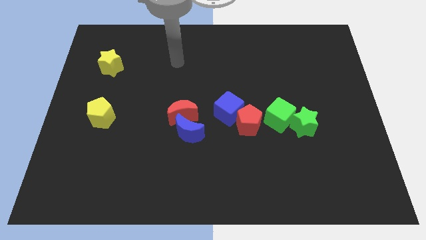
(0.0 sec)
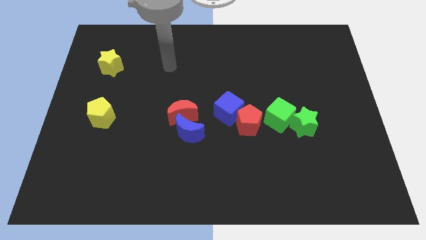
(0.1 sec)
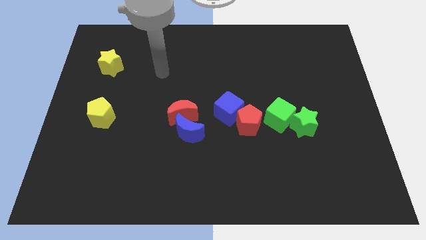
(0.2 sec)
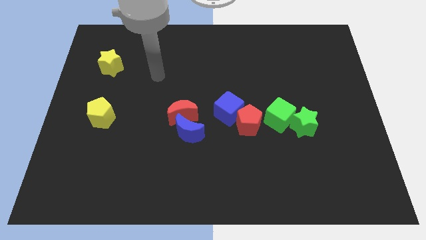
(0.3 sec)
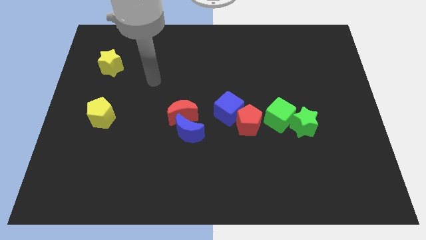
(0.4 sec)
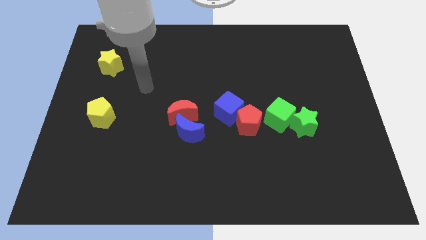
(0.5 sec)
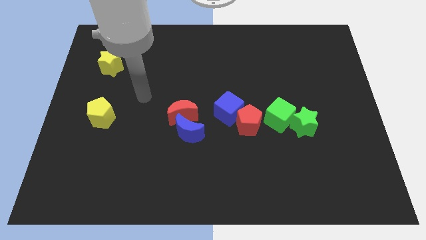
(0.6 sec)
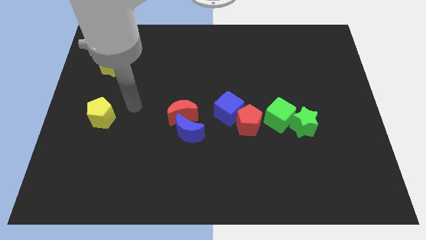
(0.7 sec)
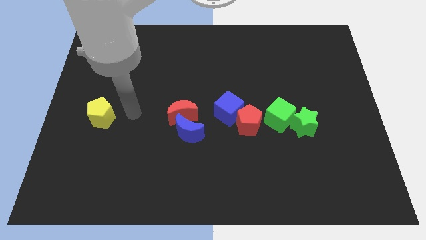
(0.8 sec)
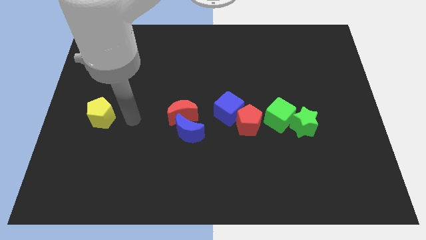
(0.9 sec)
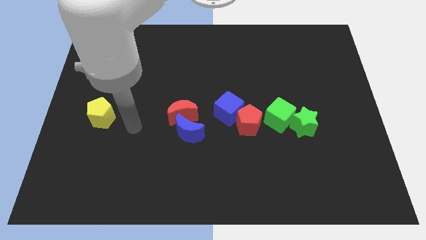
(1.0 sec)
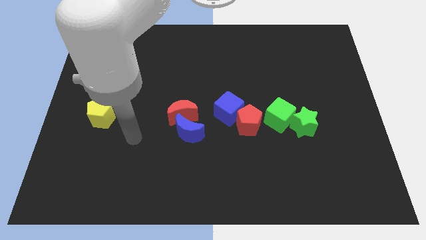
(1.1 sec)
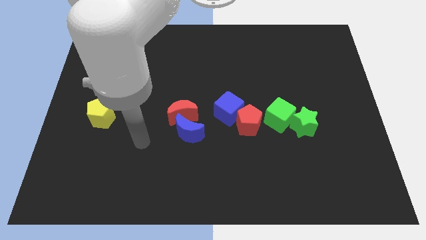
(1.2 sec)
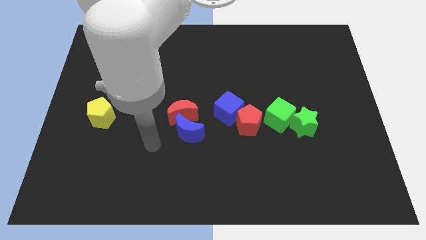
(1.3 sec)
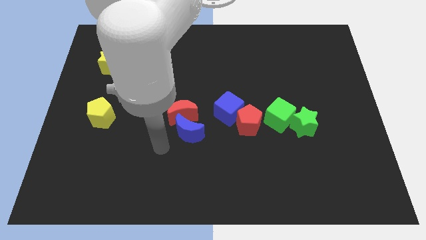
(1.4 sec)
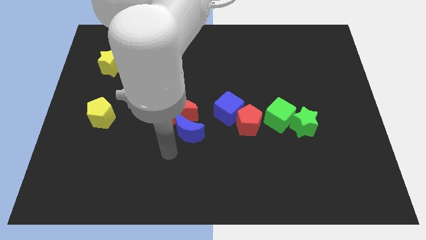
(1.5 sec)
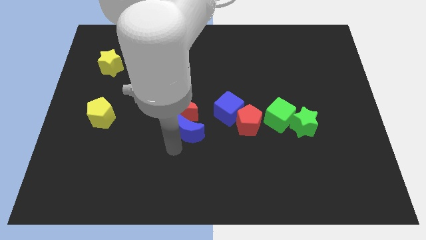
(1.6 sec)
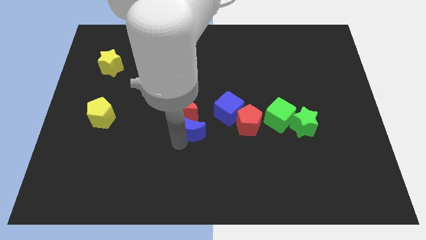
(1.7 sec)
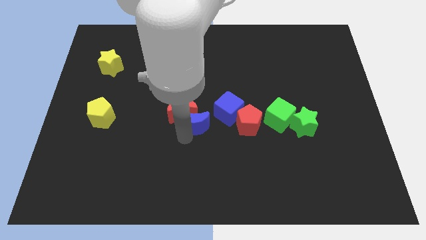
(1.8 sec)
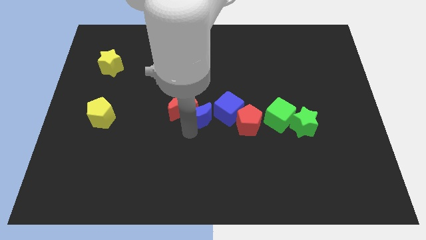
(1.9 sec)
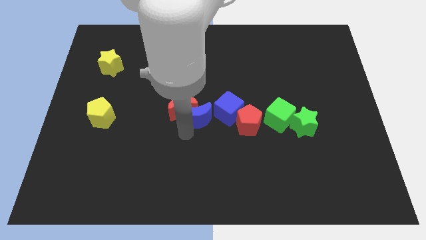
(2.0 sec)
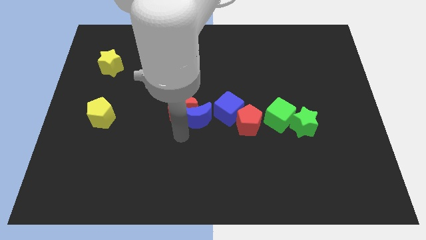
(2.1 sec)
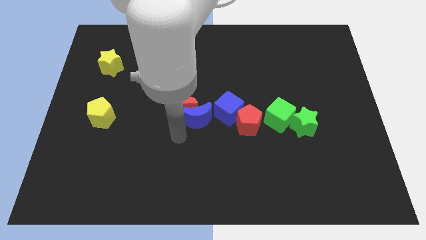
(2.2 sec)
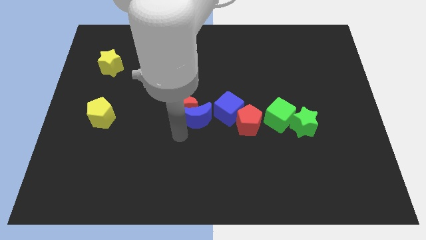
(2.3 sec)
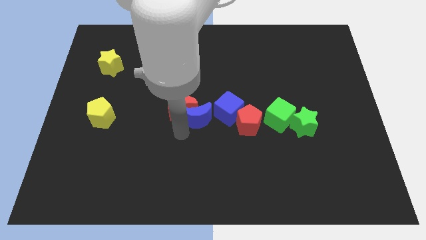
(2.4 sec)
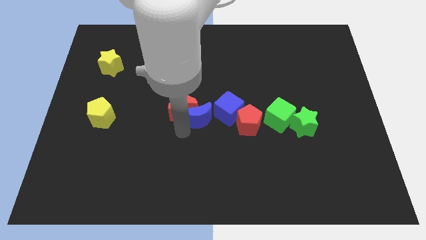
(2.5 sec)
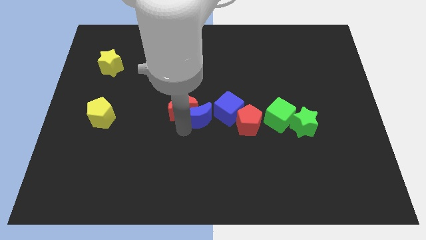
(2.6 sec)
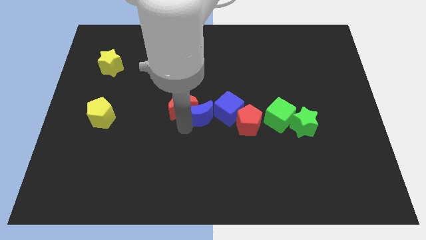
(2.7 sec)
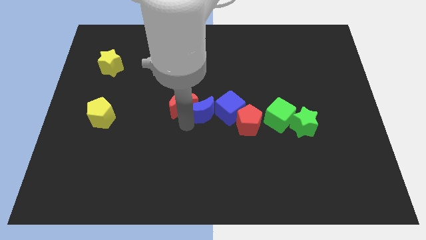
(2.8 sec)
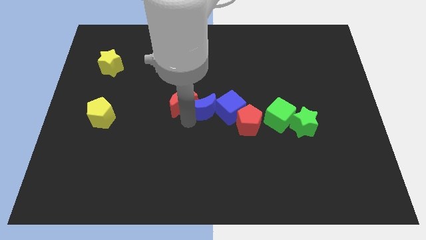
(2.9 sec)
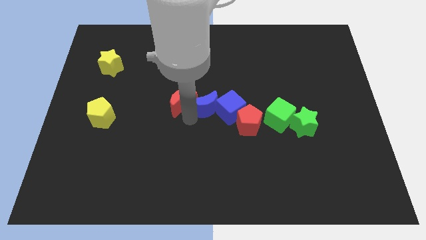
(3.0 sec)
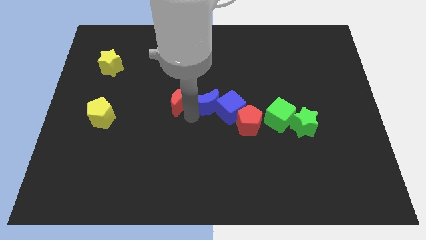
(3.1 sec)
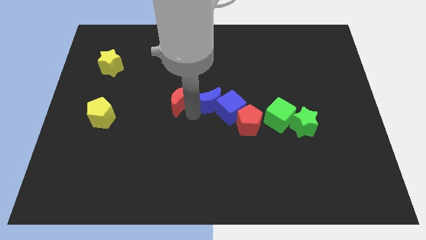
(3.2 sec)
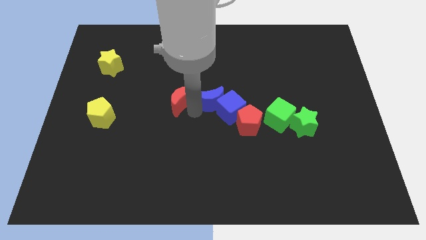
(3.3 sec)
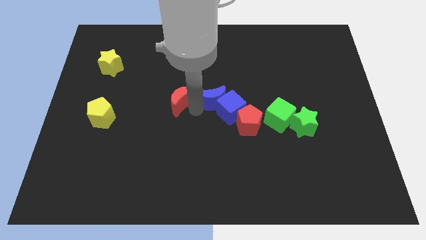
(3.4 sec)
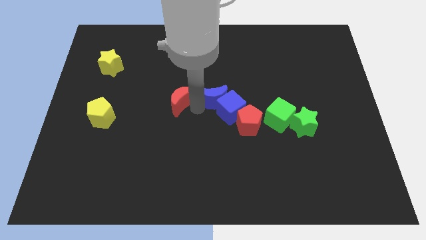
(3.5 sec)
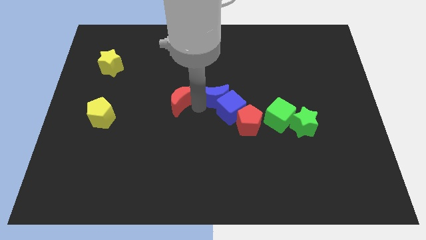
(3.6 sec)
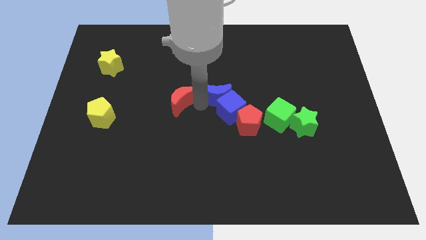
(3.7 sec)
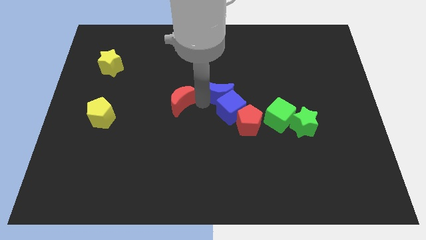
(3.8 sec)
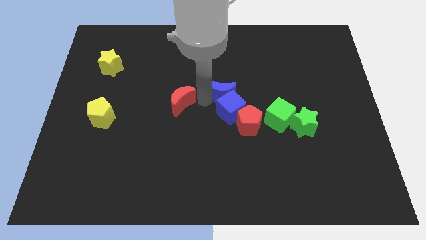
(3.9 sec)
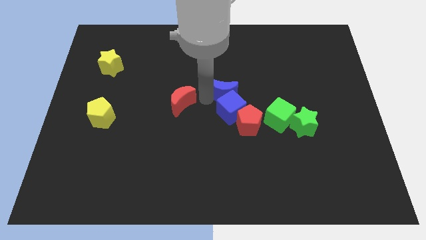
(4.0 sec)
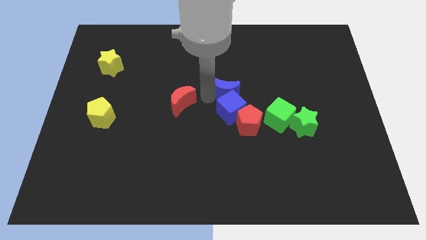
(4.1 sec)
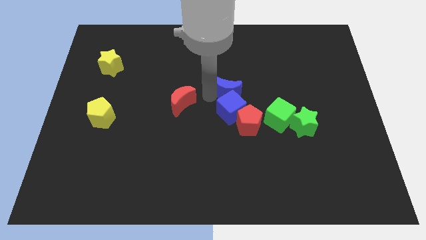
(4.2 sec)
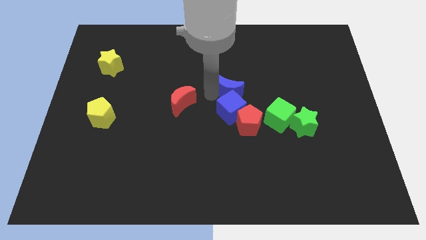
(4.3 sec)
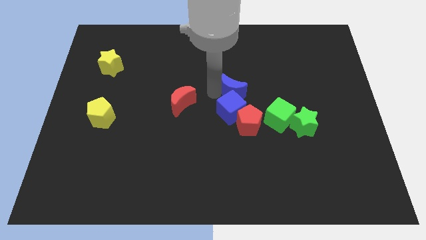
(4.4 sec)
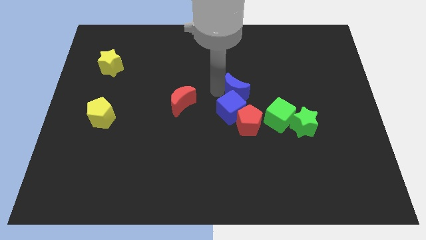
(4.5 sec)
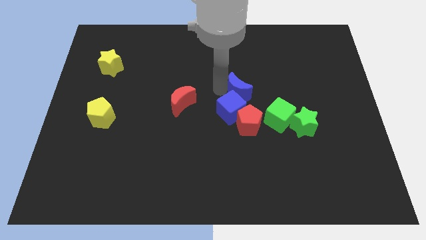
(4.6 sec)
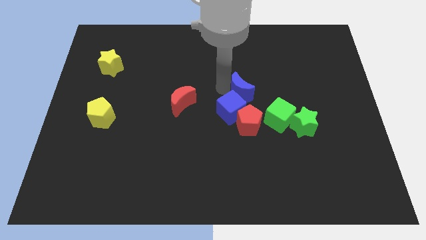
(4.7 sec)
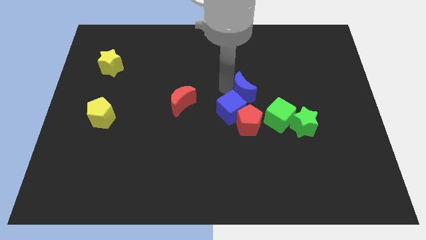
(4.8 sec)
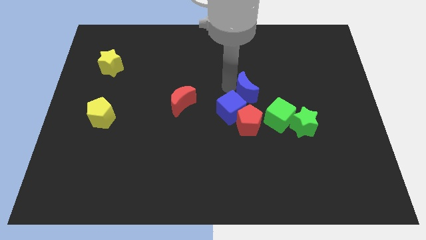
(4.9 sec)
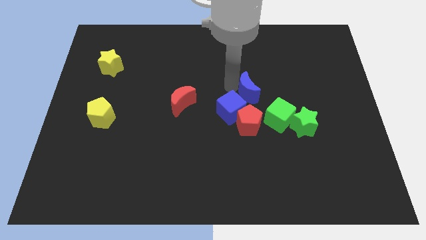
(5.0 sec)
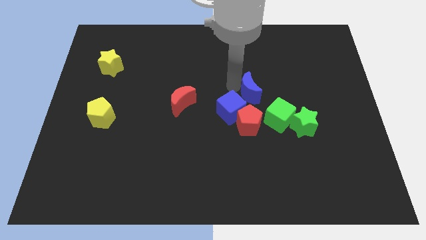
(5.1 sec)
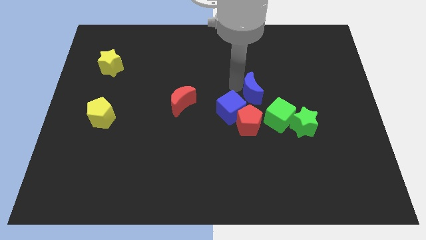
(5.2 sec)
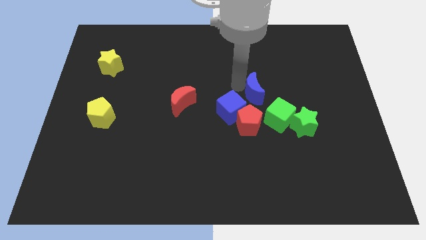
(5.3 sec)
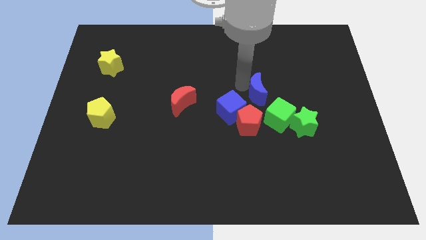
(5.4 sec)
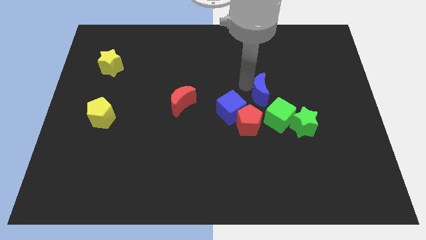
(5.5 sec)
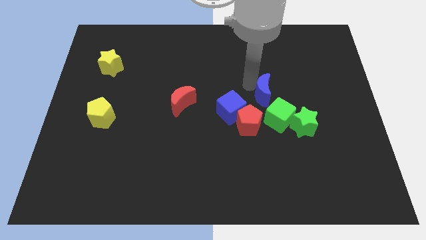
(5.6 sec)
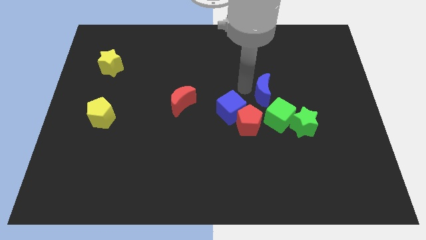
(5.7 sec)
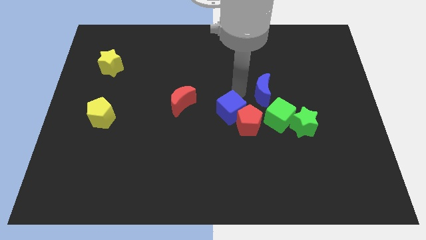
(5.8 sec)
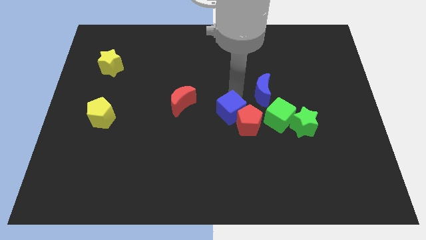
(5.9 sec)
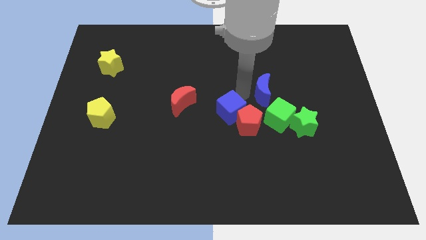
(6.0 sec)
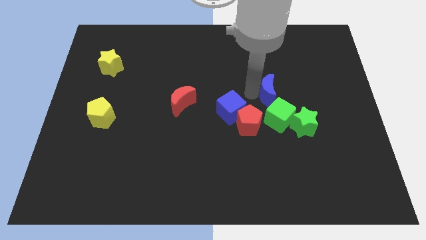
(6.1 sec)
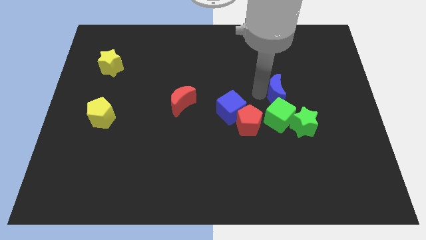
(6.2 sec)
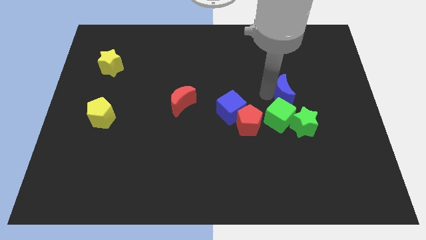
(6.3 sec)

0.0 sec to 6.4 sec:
put the blue moon to the top side of the green star

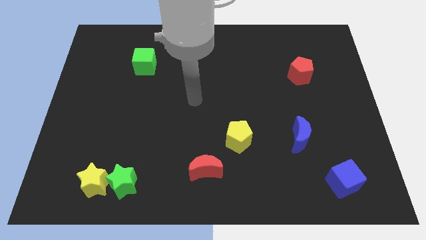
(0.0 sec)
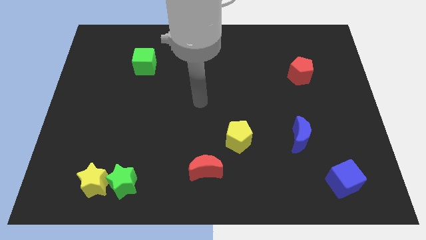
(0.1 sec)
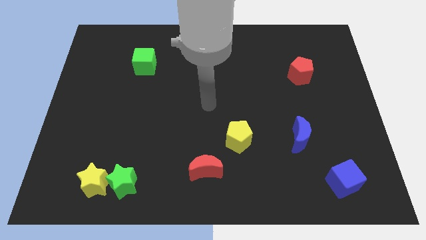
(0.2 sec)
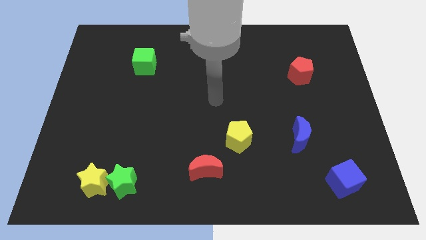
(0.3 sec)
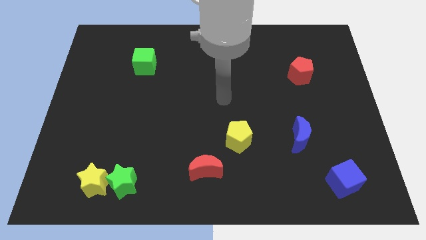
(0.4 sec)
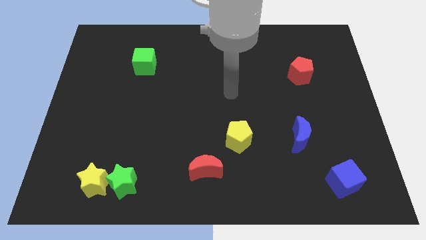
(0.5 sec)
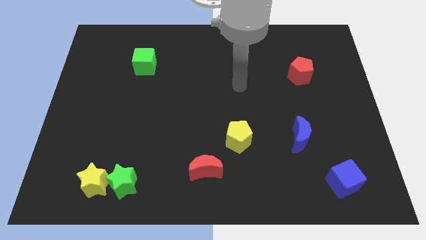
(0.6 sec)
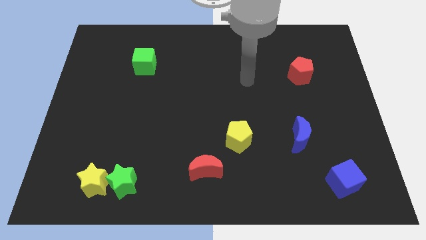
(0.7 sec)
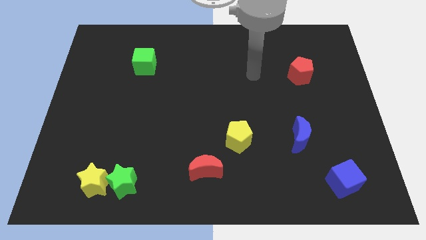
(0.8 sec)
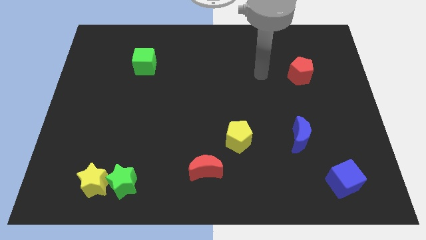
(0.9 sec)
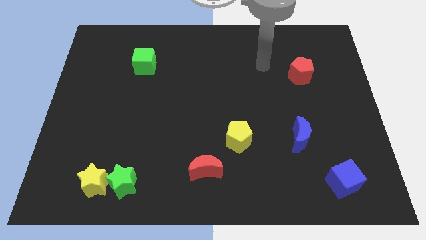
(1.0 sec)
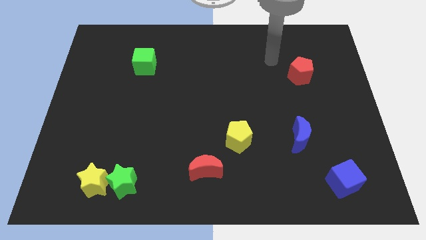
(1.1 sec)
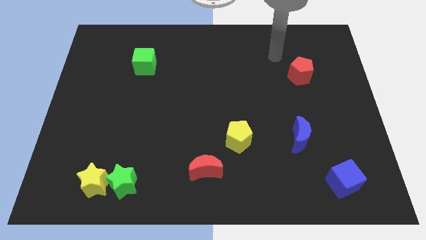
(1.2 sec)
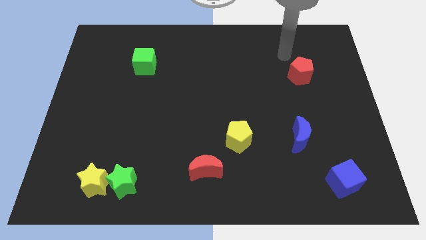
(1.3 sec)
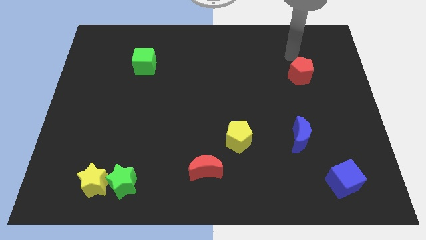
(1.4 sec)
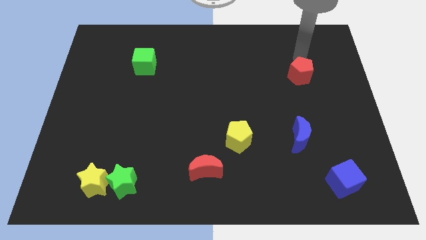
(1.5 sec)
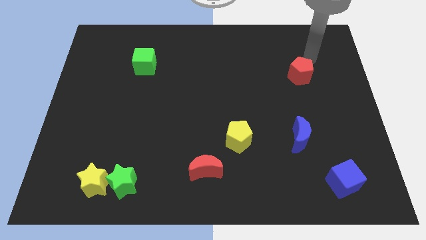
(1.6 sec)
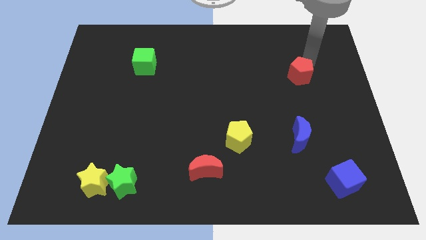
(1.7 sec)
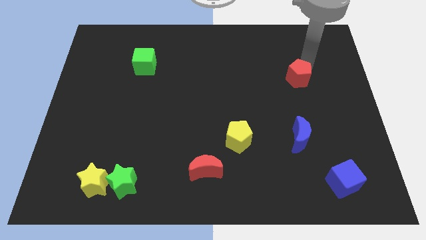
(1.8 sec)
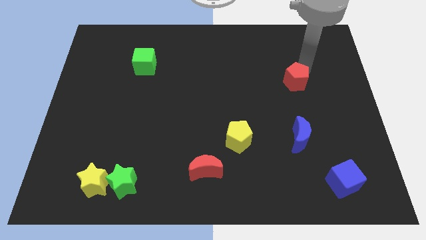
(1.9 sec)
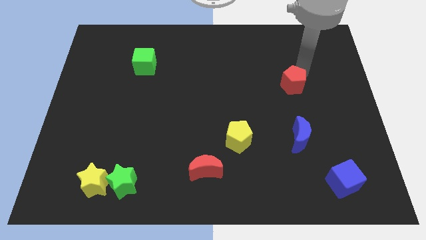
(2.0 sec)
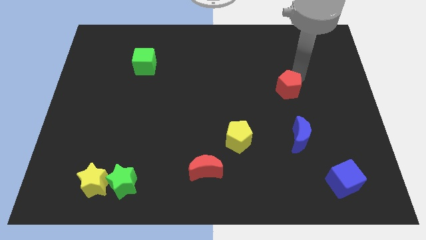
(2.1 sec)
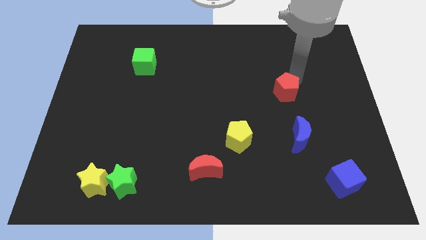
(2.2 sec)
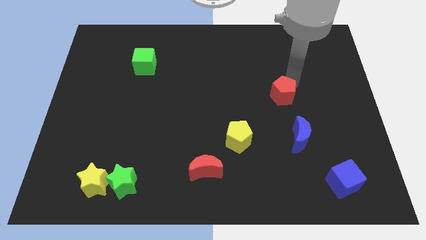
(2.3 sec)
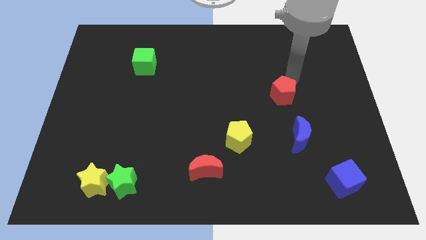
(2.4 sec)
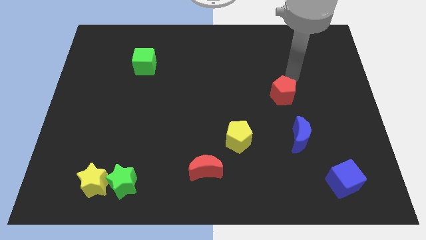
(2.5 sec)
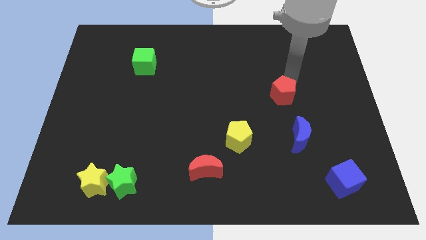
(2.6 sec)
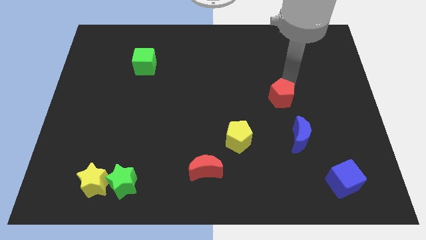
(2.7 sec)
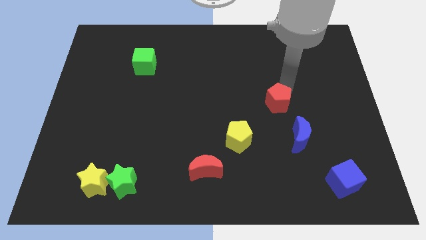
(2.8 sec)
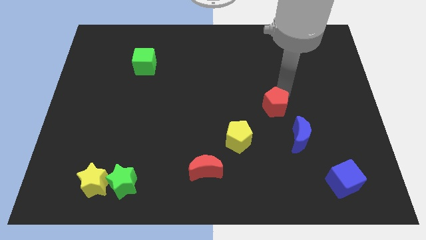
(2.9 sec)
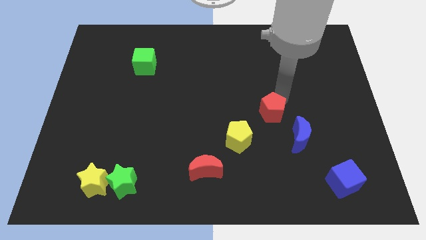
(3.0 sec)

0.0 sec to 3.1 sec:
push the red pentagon diagonally up and to the right of the yellow pentagon
